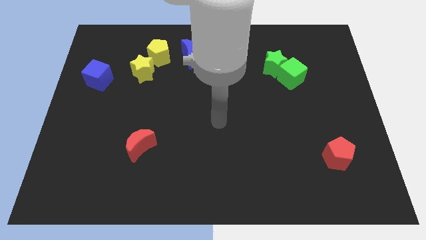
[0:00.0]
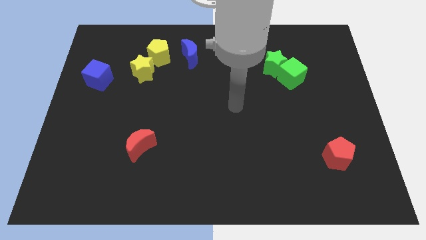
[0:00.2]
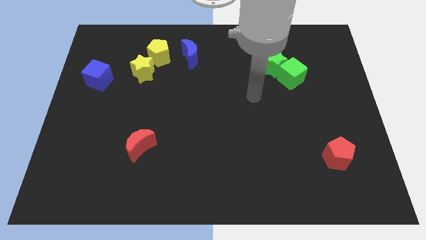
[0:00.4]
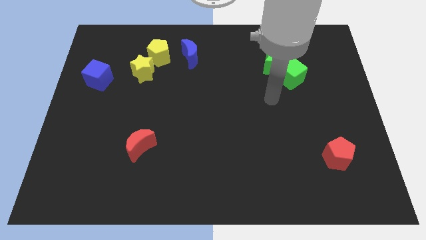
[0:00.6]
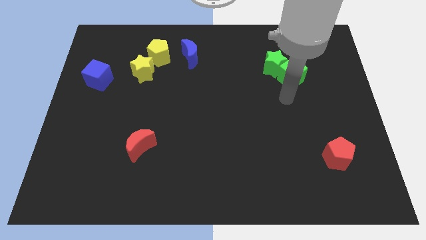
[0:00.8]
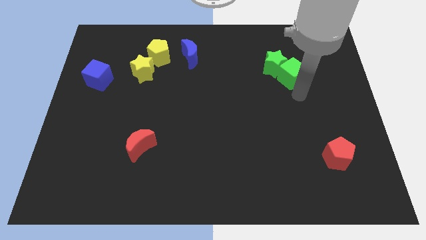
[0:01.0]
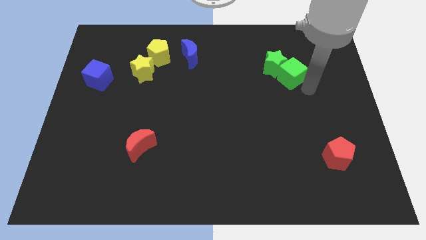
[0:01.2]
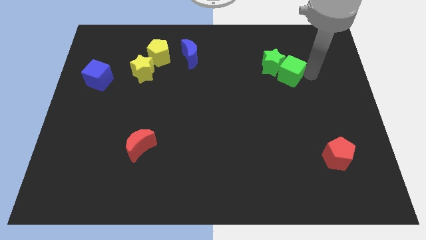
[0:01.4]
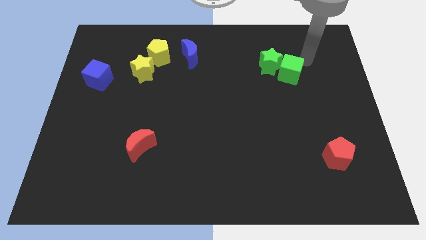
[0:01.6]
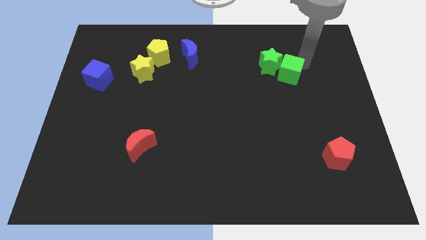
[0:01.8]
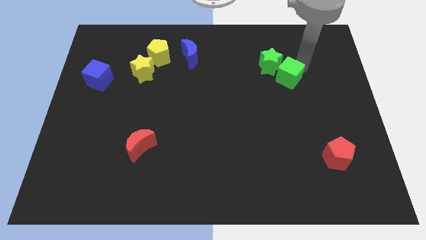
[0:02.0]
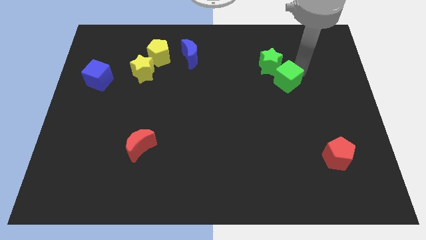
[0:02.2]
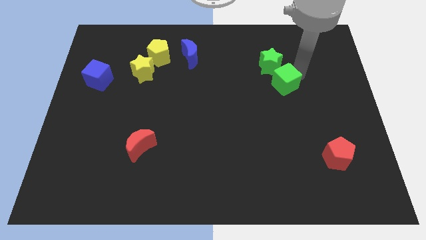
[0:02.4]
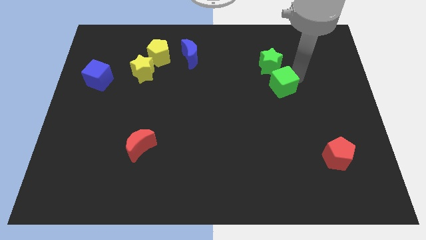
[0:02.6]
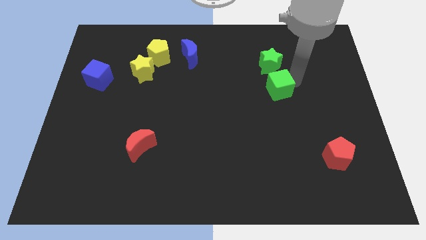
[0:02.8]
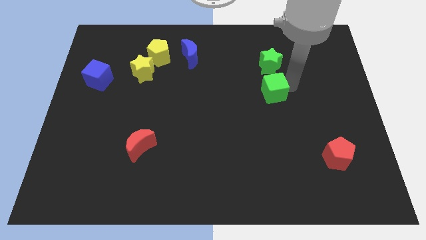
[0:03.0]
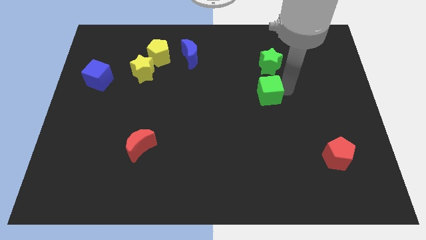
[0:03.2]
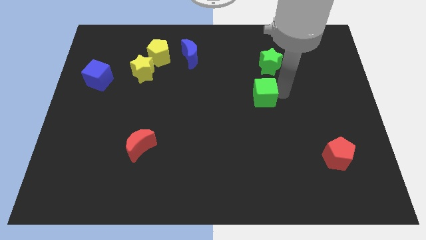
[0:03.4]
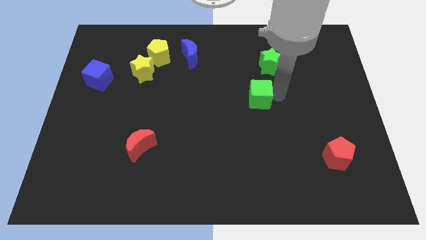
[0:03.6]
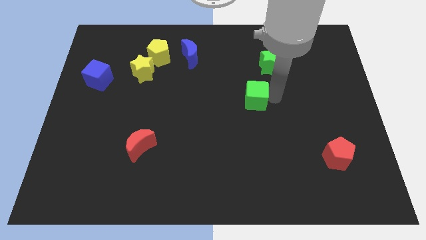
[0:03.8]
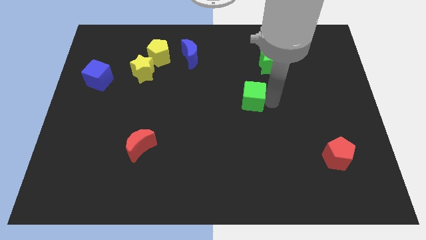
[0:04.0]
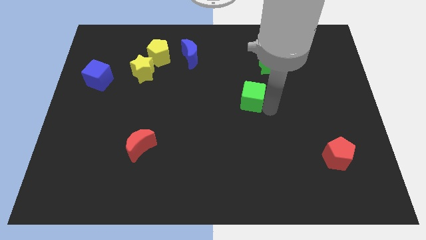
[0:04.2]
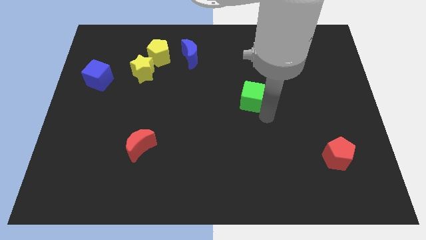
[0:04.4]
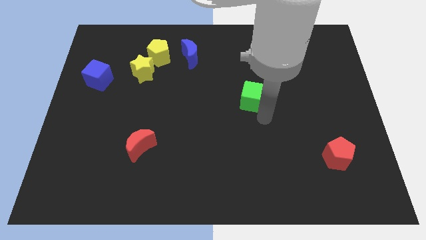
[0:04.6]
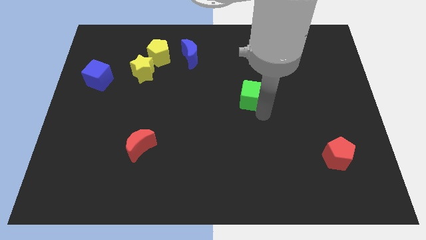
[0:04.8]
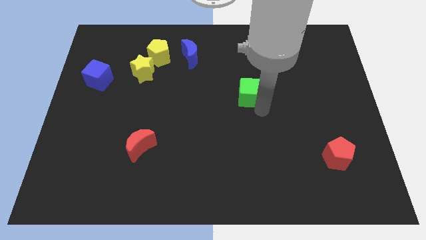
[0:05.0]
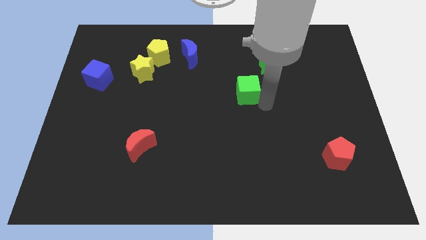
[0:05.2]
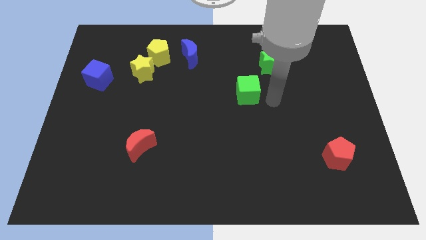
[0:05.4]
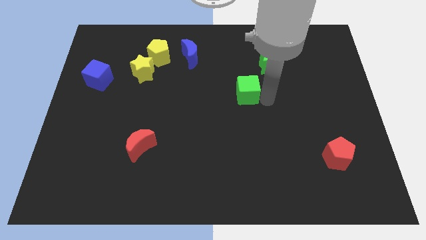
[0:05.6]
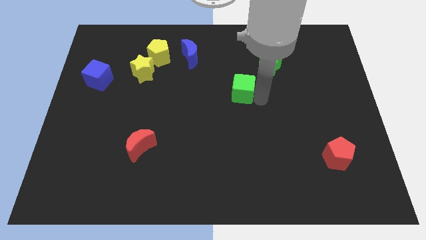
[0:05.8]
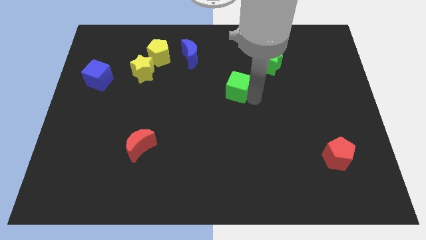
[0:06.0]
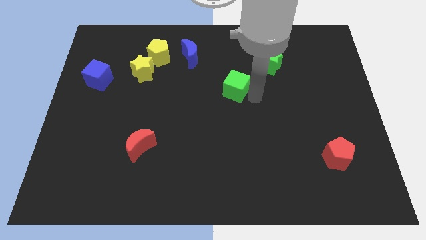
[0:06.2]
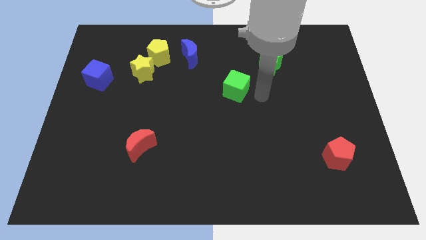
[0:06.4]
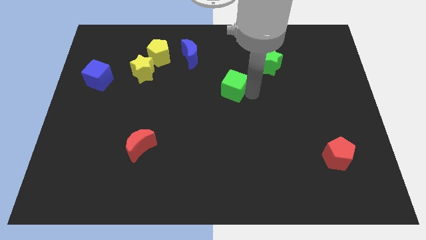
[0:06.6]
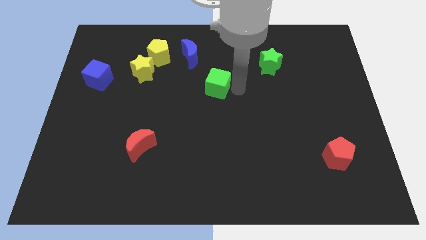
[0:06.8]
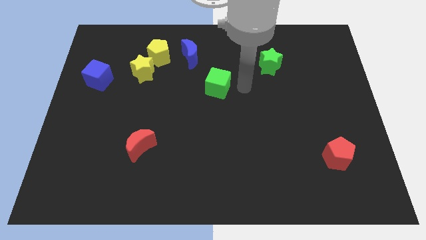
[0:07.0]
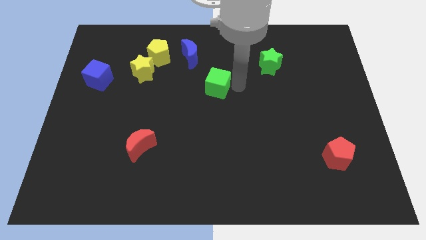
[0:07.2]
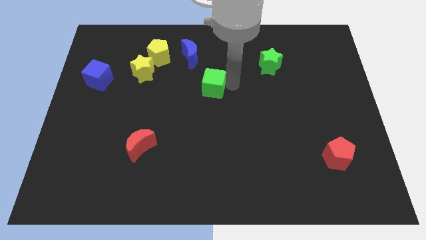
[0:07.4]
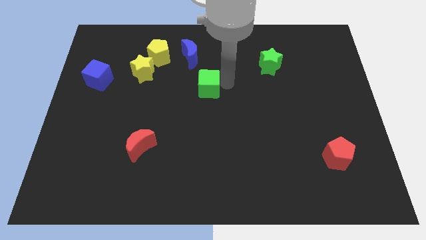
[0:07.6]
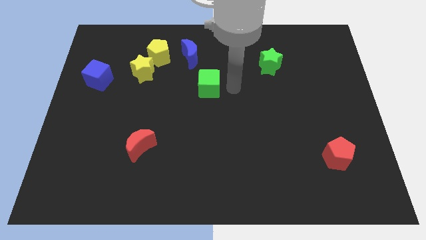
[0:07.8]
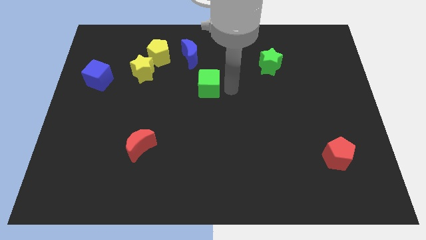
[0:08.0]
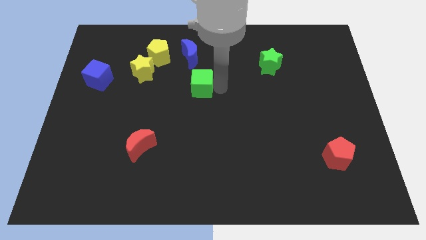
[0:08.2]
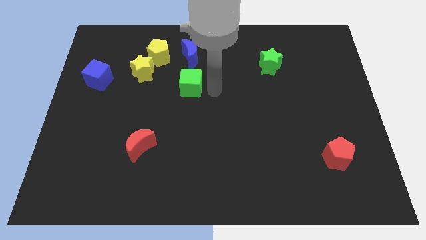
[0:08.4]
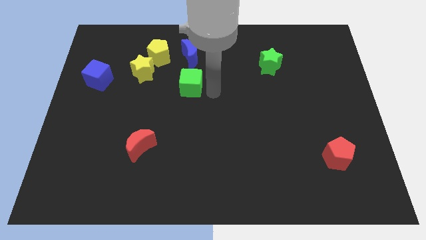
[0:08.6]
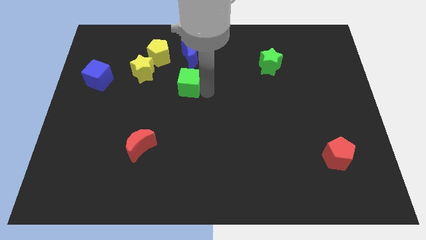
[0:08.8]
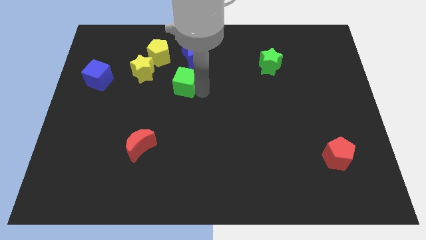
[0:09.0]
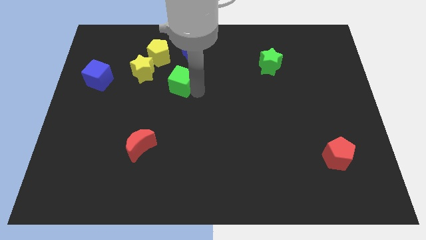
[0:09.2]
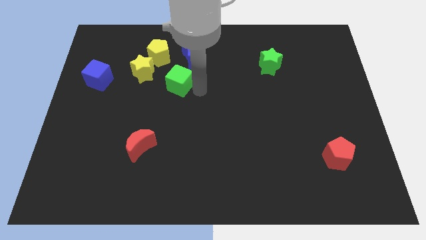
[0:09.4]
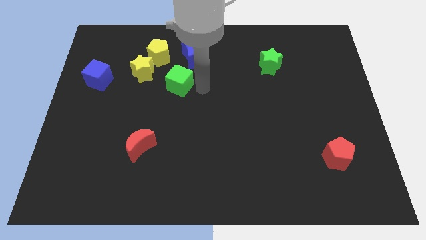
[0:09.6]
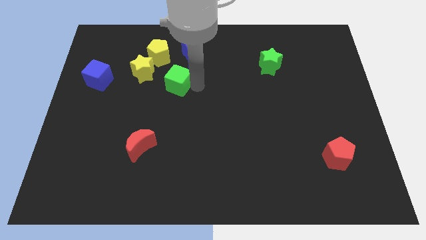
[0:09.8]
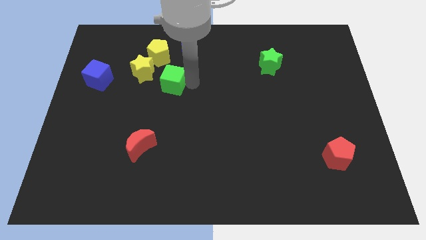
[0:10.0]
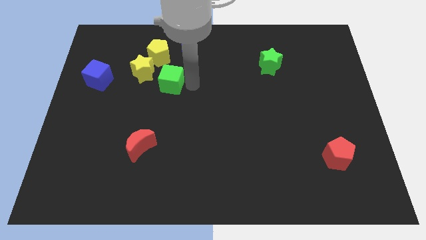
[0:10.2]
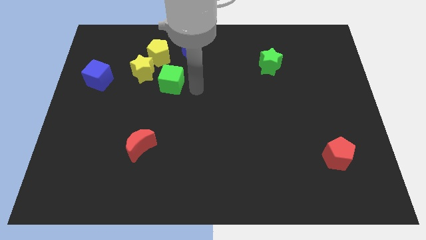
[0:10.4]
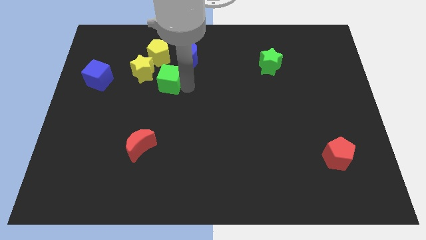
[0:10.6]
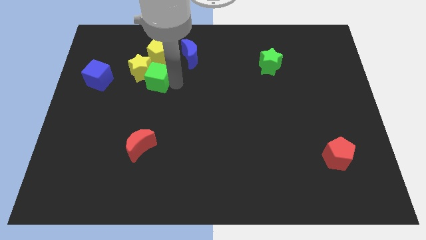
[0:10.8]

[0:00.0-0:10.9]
move the green cube right of the blue cube

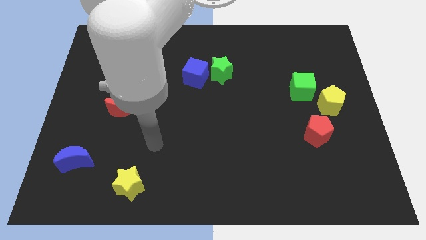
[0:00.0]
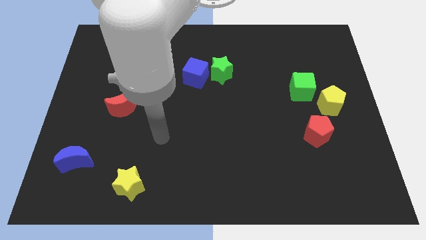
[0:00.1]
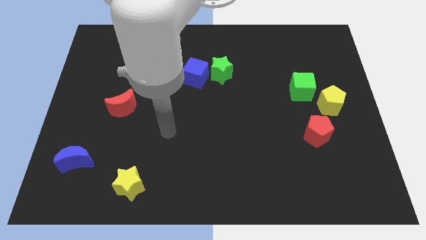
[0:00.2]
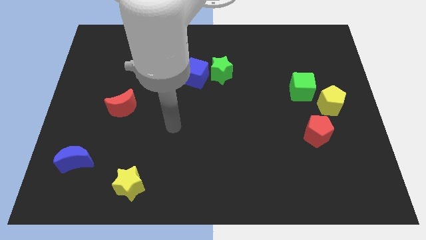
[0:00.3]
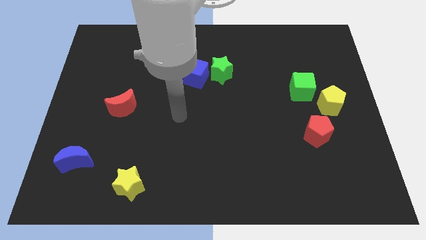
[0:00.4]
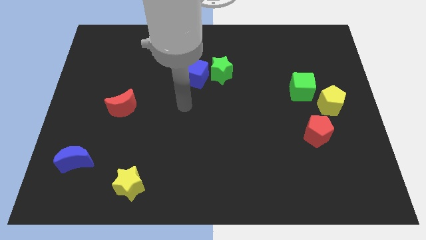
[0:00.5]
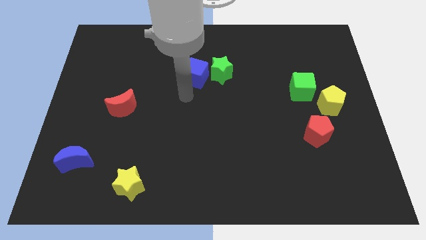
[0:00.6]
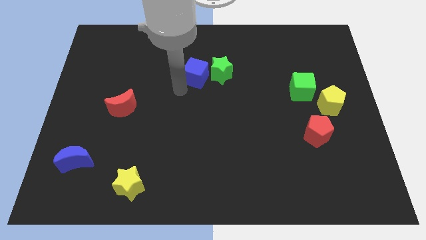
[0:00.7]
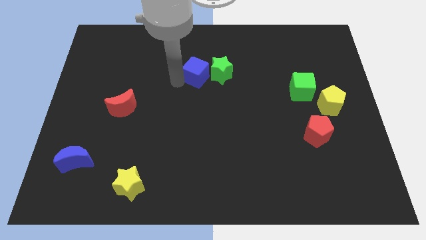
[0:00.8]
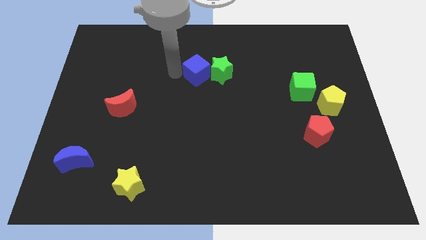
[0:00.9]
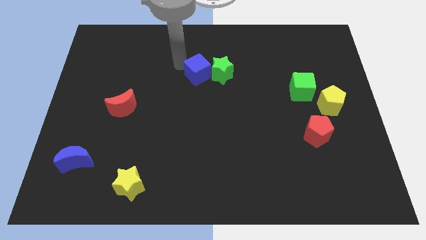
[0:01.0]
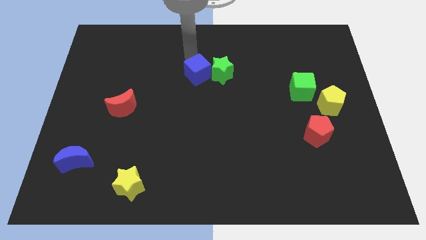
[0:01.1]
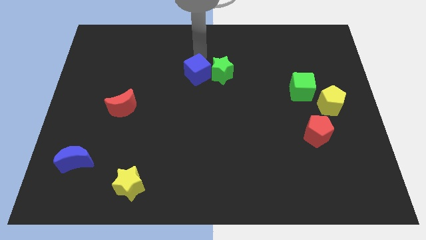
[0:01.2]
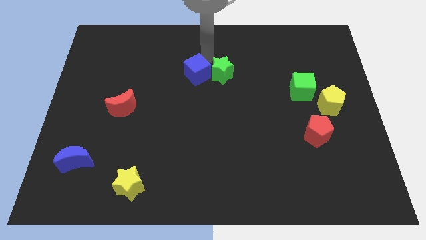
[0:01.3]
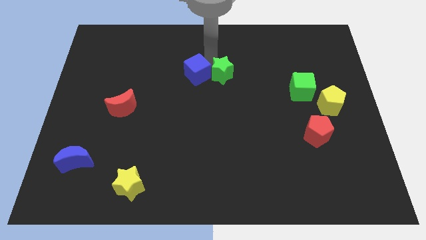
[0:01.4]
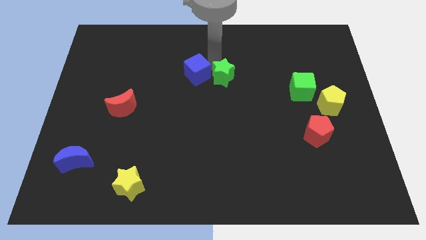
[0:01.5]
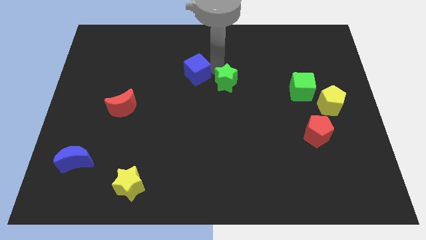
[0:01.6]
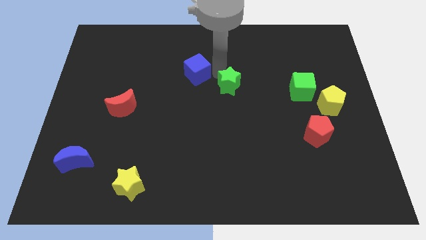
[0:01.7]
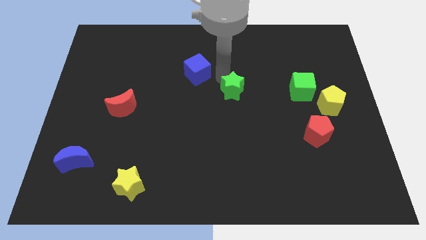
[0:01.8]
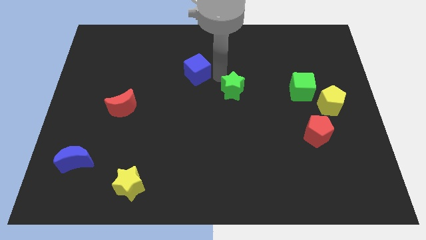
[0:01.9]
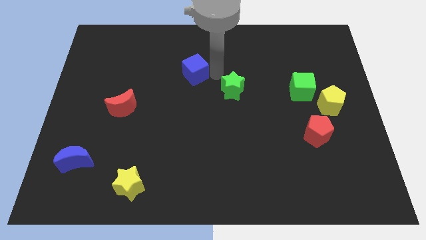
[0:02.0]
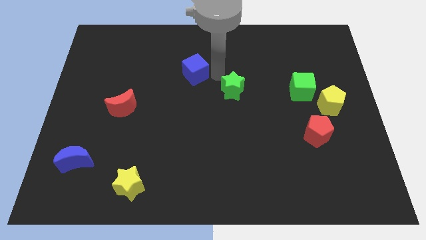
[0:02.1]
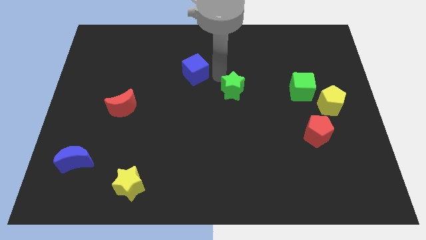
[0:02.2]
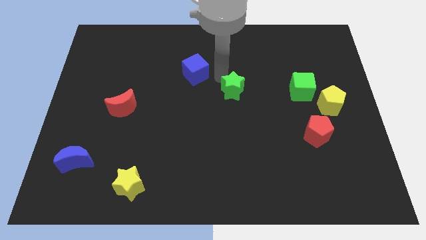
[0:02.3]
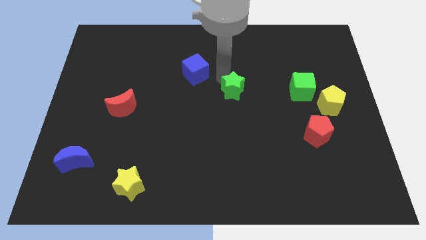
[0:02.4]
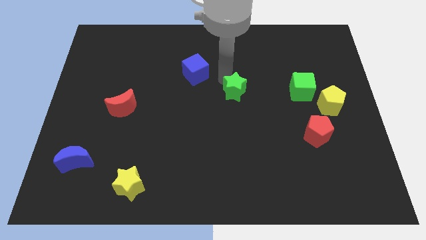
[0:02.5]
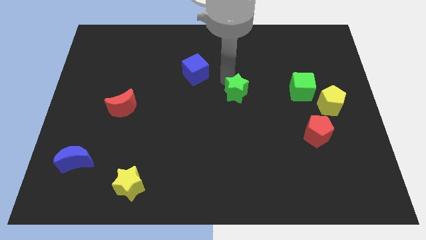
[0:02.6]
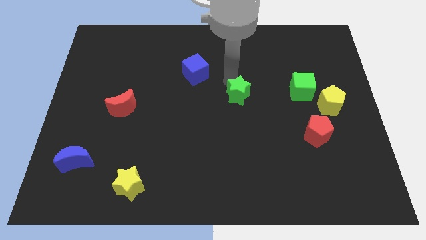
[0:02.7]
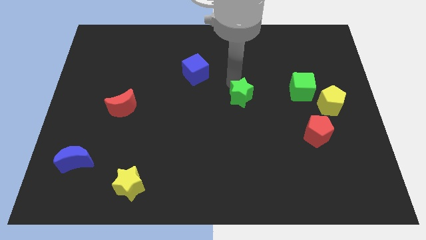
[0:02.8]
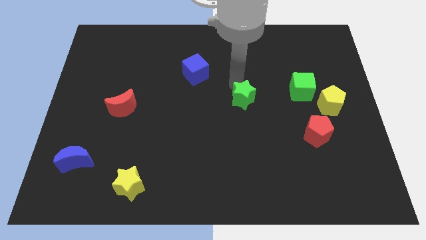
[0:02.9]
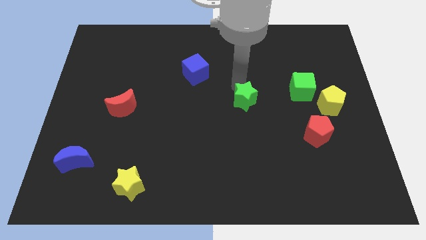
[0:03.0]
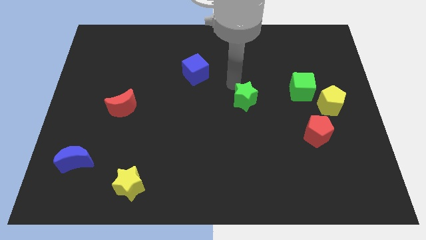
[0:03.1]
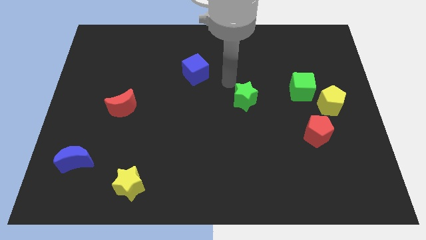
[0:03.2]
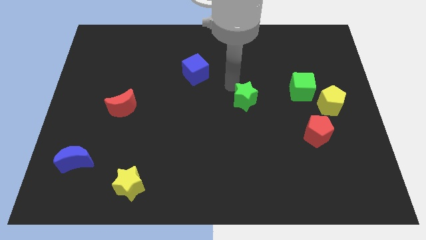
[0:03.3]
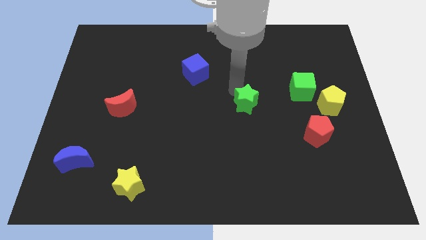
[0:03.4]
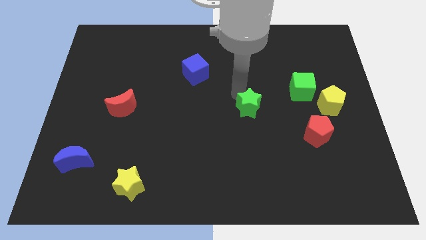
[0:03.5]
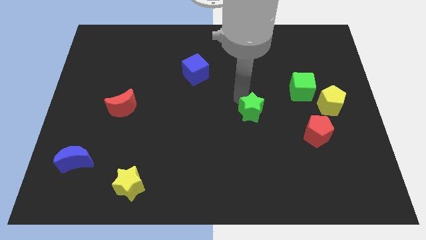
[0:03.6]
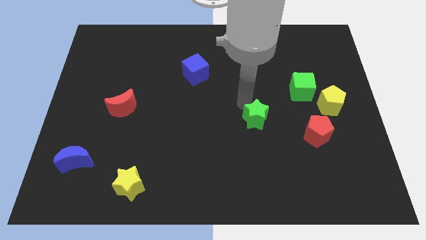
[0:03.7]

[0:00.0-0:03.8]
slide the green star to the left of the red pentagon
